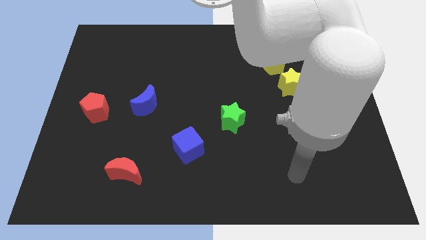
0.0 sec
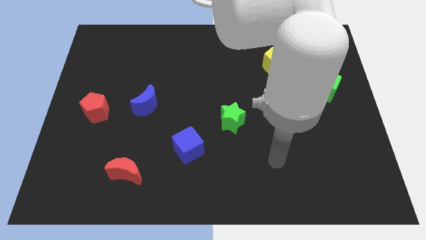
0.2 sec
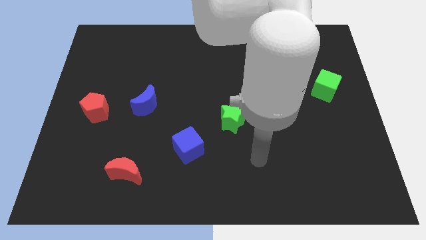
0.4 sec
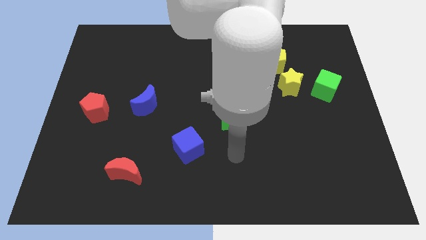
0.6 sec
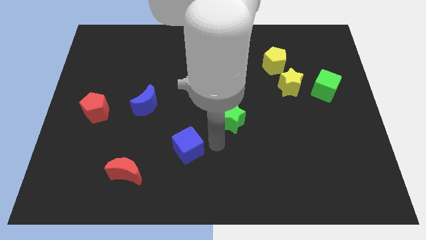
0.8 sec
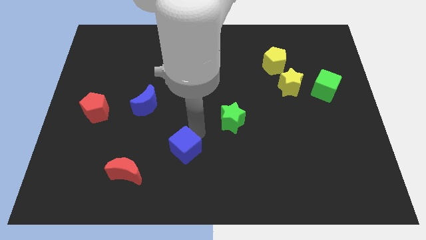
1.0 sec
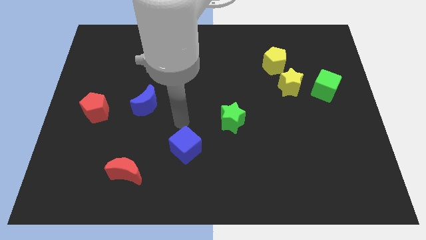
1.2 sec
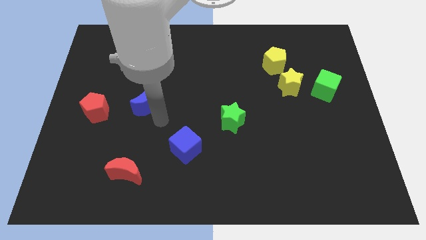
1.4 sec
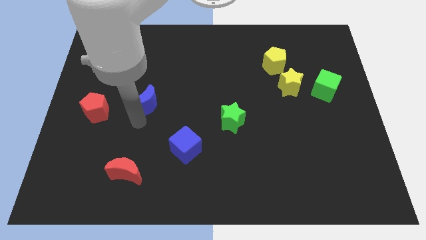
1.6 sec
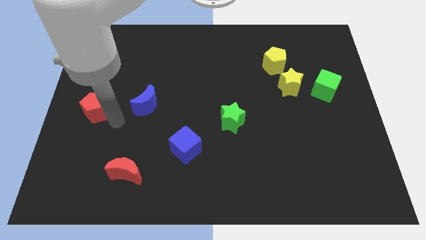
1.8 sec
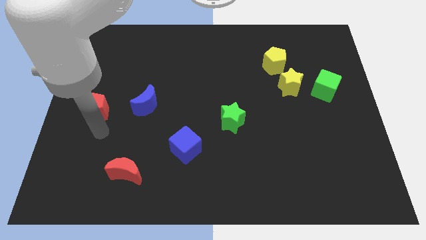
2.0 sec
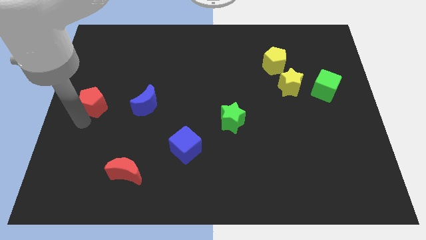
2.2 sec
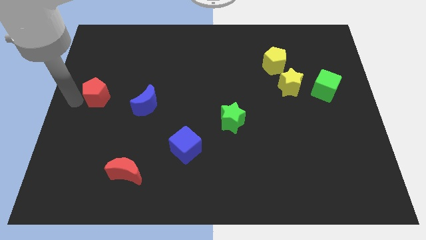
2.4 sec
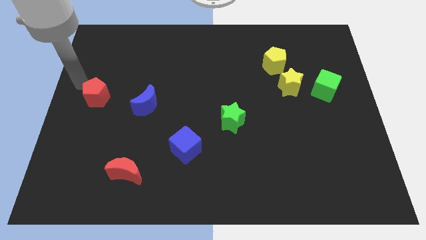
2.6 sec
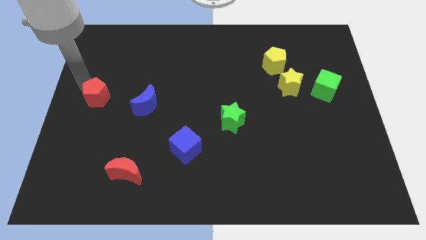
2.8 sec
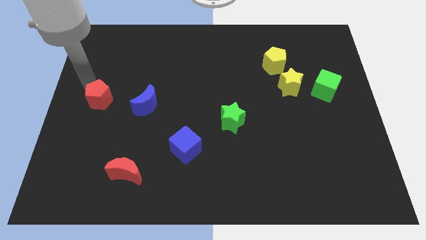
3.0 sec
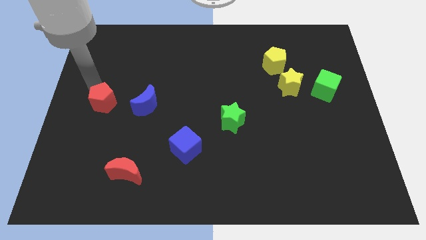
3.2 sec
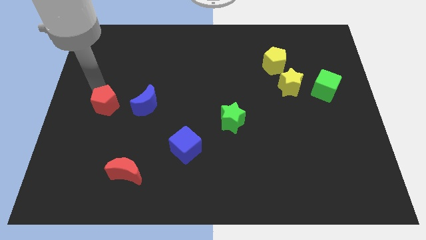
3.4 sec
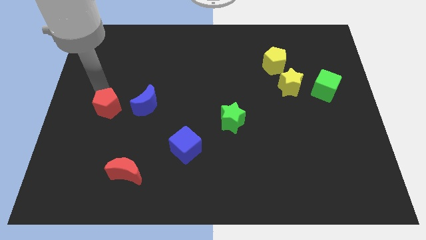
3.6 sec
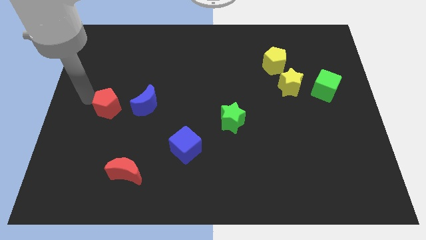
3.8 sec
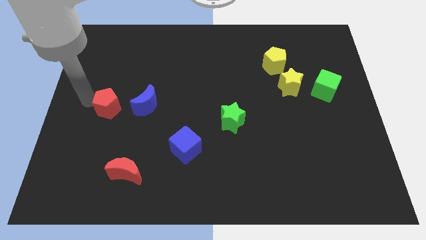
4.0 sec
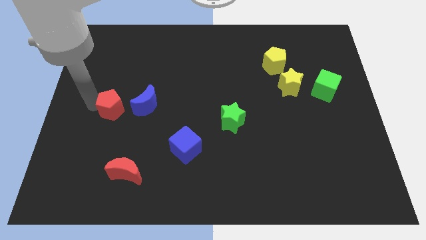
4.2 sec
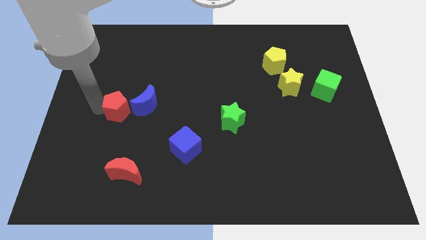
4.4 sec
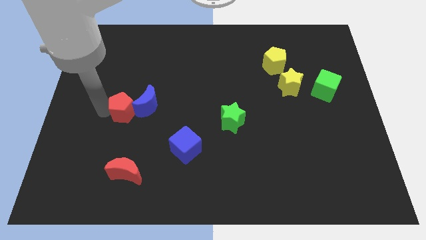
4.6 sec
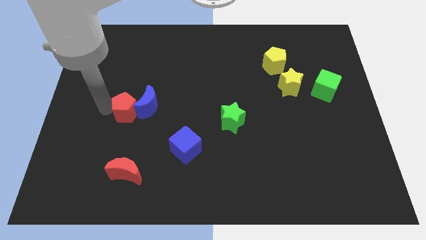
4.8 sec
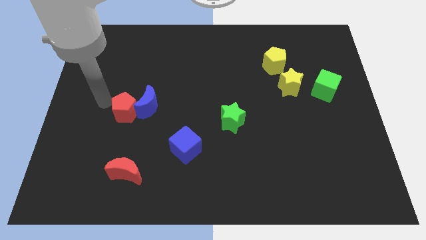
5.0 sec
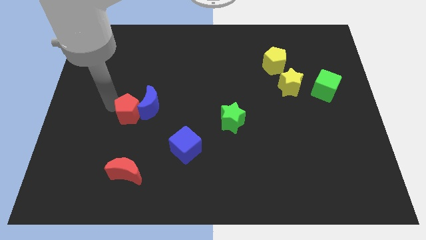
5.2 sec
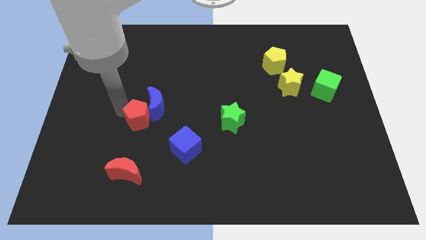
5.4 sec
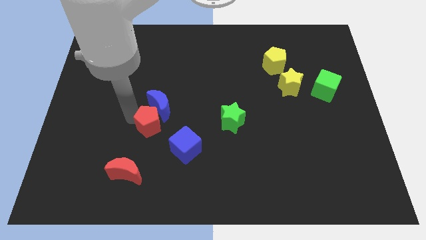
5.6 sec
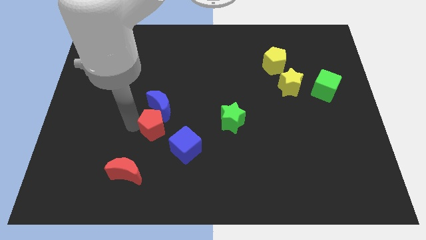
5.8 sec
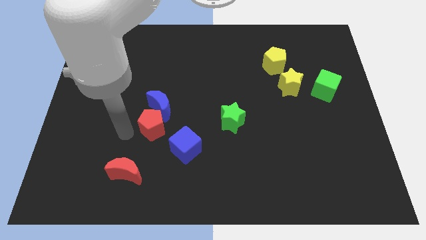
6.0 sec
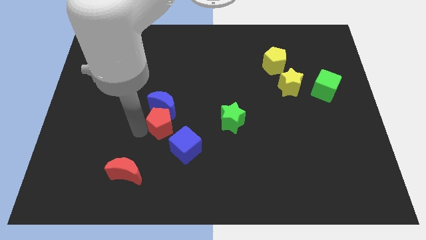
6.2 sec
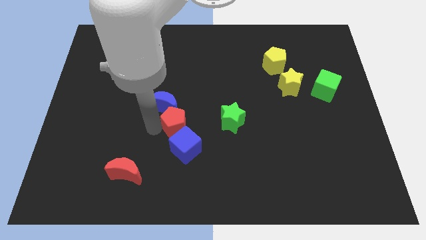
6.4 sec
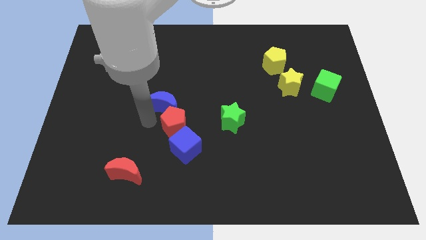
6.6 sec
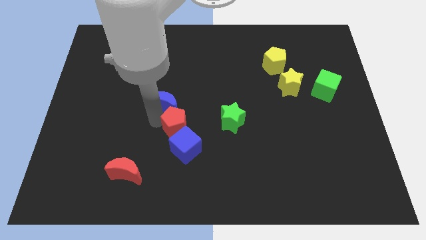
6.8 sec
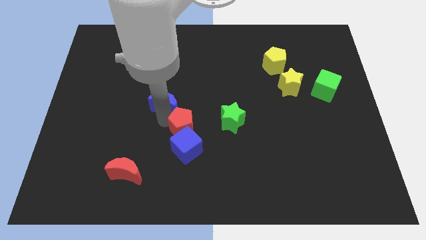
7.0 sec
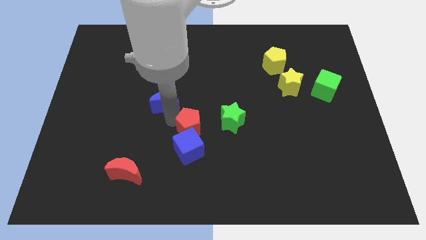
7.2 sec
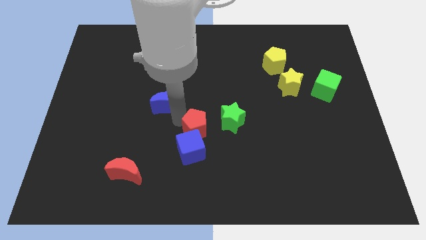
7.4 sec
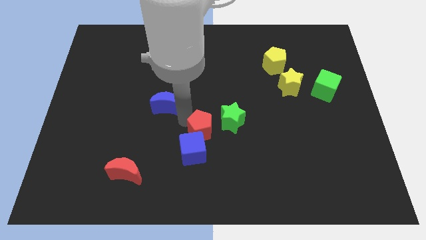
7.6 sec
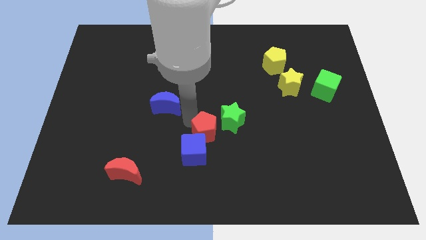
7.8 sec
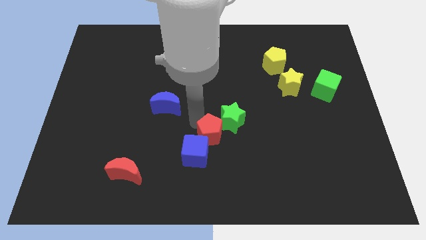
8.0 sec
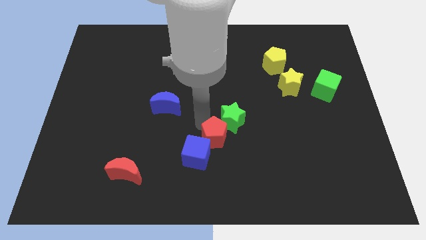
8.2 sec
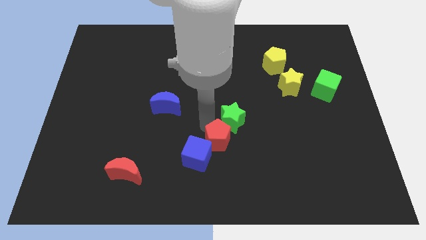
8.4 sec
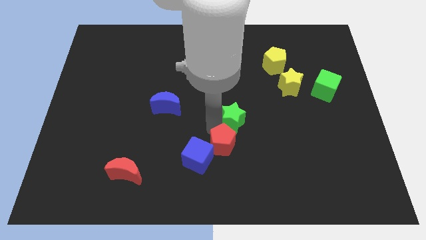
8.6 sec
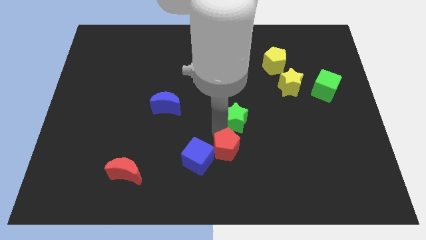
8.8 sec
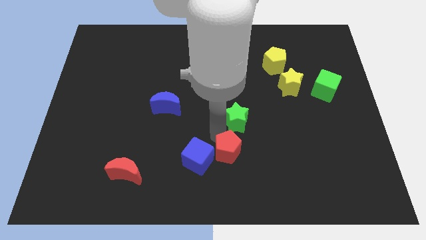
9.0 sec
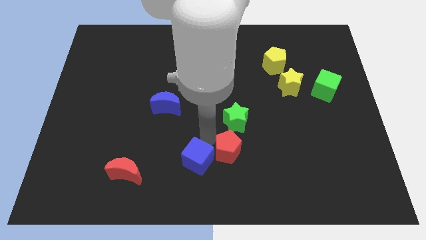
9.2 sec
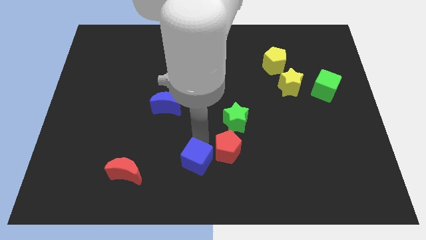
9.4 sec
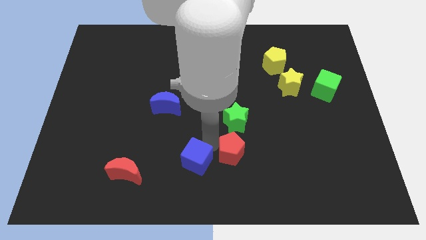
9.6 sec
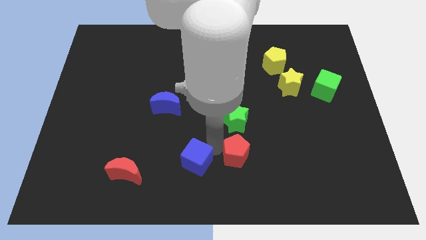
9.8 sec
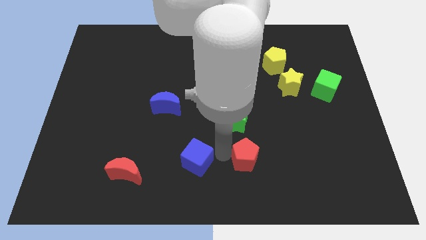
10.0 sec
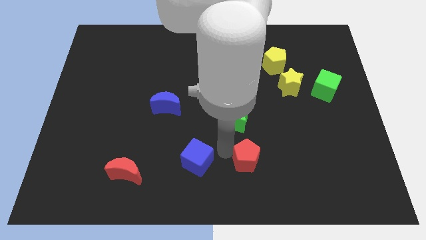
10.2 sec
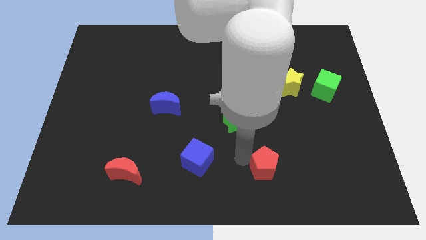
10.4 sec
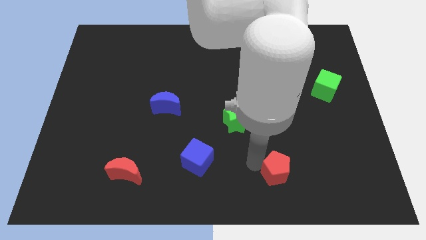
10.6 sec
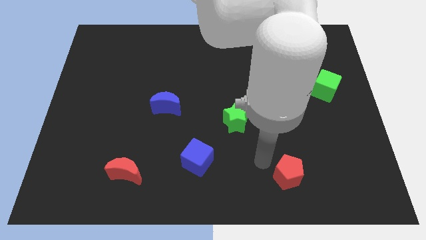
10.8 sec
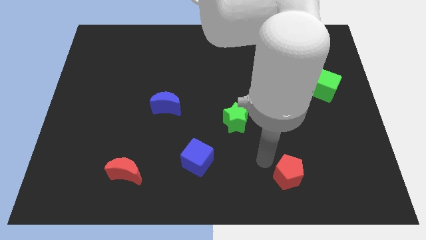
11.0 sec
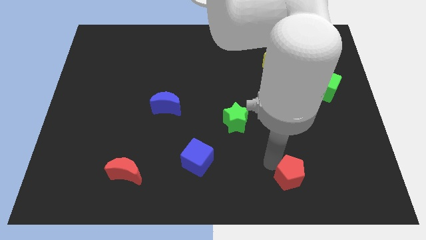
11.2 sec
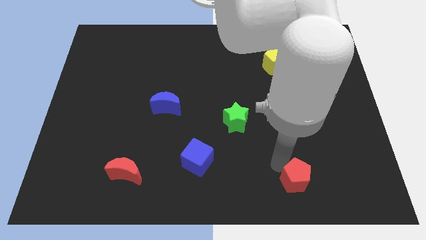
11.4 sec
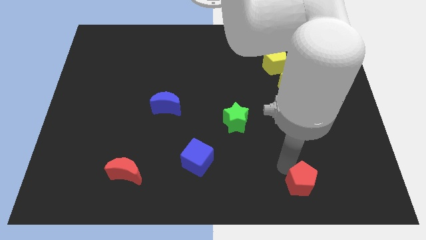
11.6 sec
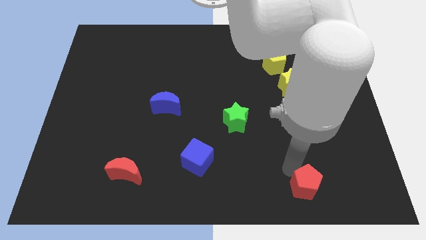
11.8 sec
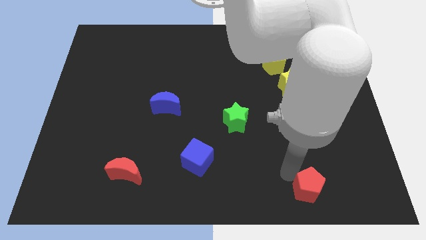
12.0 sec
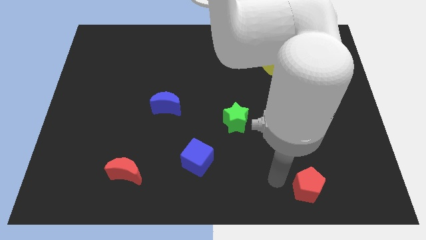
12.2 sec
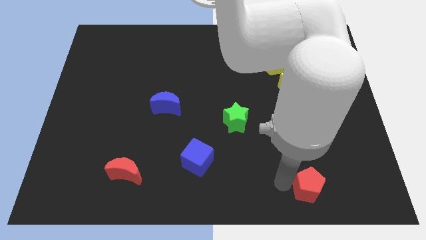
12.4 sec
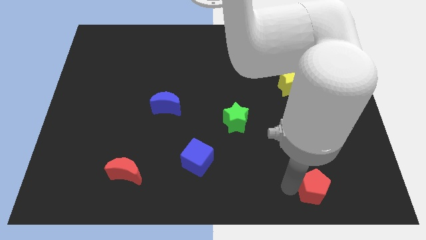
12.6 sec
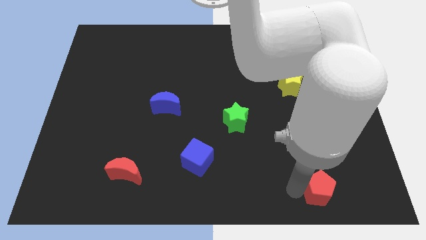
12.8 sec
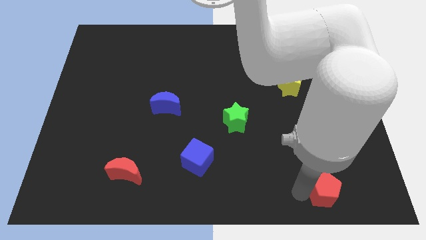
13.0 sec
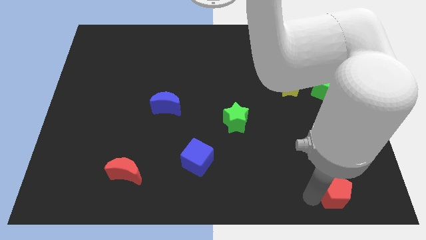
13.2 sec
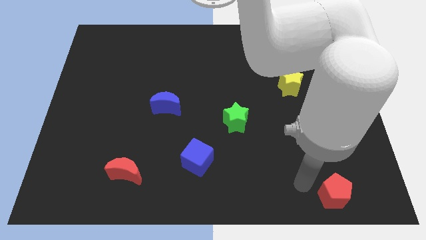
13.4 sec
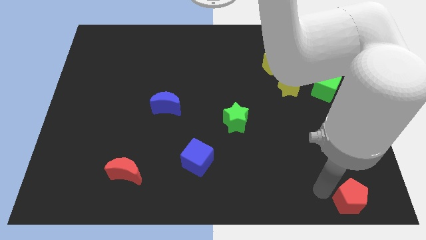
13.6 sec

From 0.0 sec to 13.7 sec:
put the red pentagon to the bottom right
